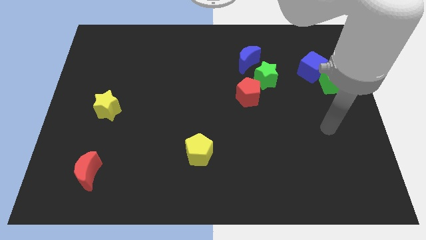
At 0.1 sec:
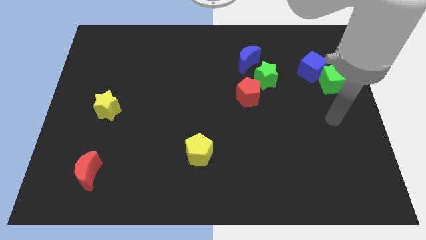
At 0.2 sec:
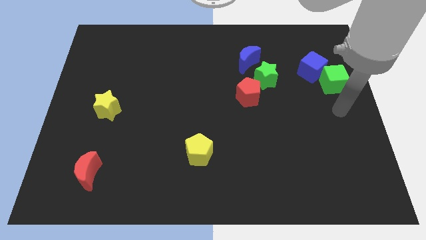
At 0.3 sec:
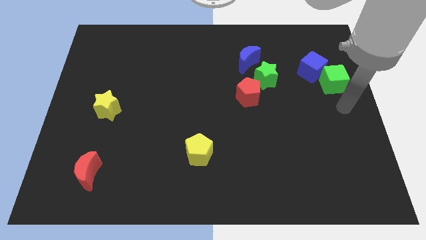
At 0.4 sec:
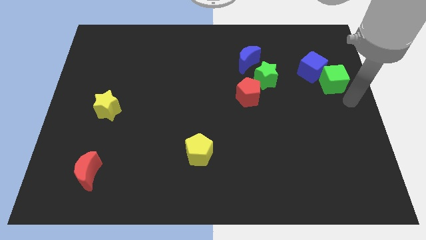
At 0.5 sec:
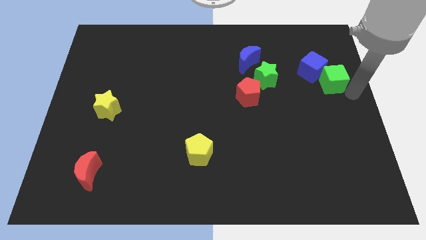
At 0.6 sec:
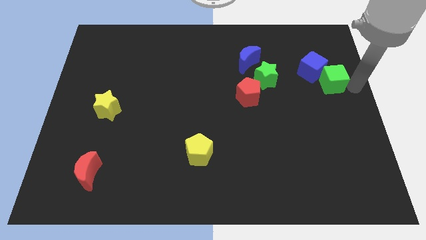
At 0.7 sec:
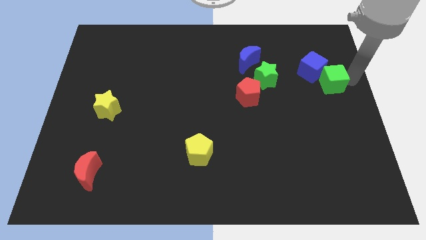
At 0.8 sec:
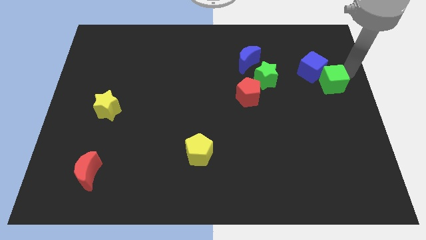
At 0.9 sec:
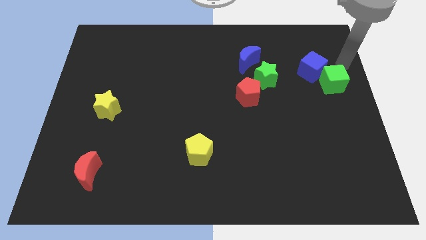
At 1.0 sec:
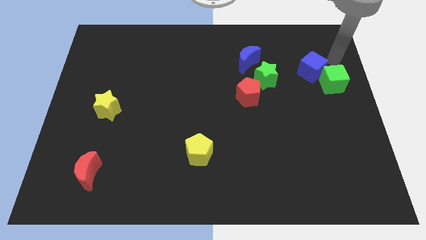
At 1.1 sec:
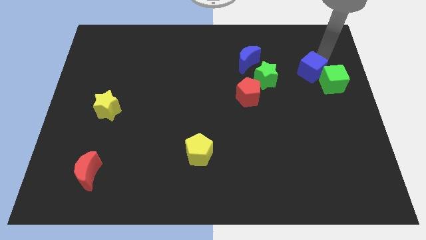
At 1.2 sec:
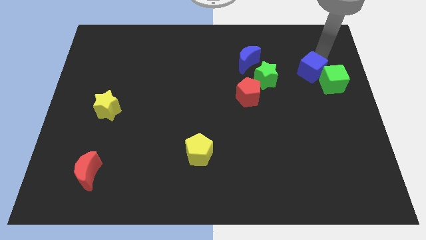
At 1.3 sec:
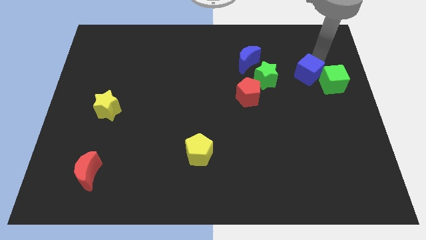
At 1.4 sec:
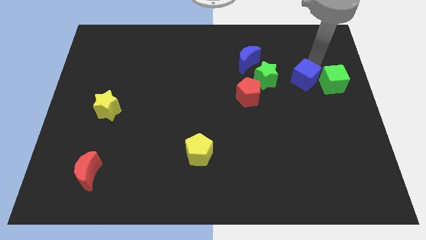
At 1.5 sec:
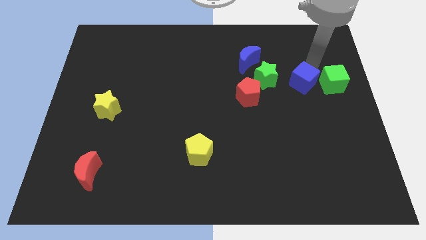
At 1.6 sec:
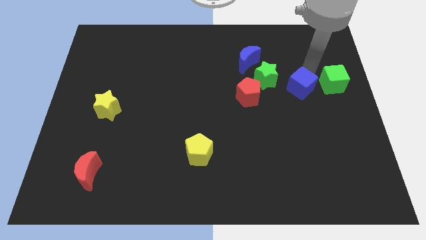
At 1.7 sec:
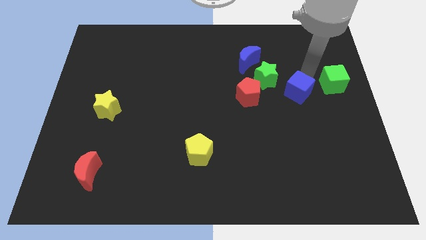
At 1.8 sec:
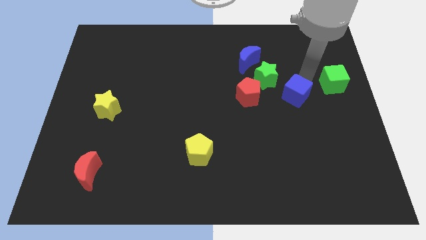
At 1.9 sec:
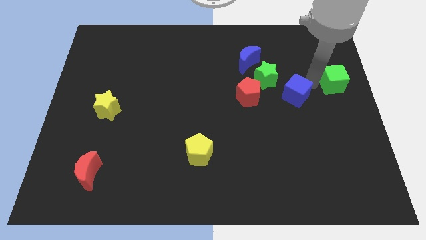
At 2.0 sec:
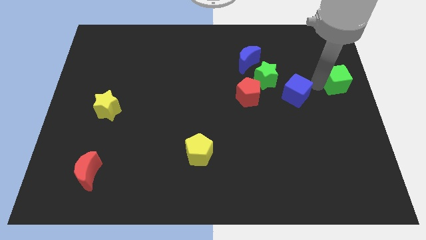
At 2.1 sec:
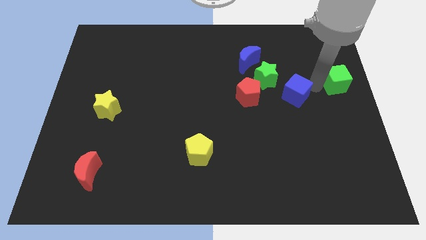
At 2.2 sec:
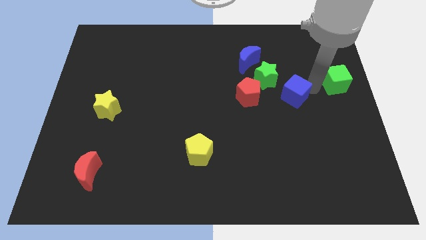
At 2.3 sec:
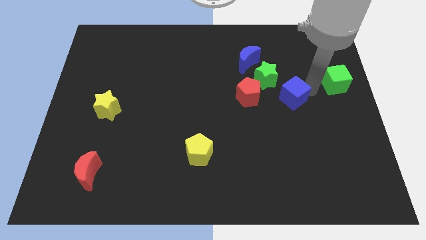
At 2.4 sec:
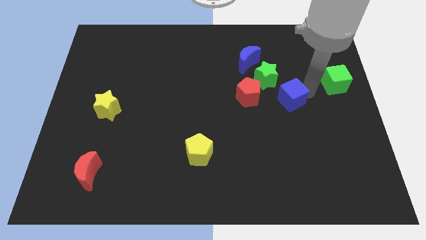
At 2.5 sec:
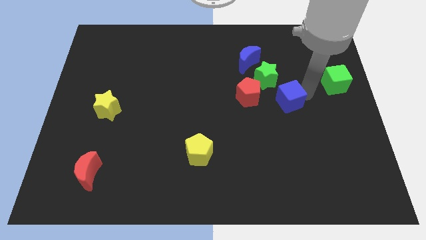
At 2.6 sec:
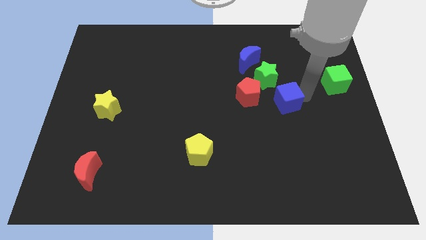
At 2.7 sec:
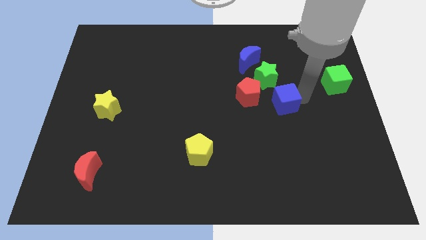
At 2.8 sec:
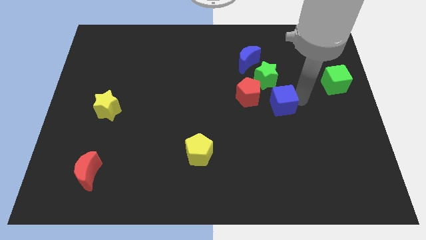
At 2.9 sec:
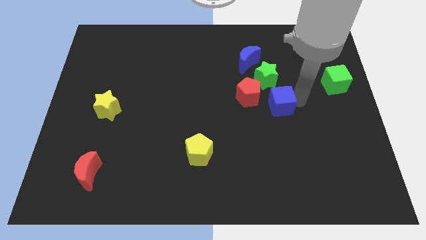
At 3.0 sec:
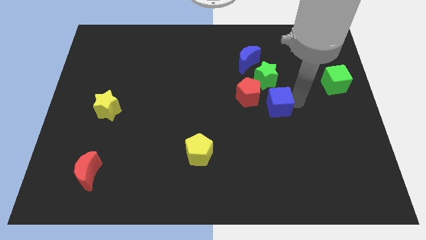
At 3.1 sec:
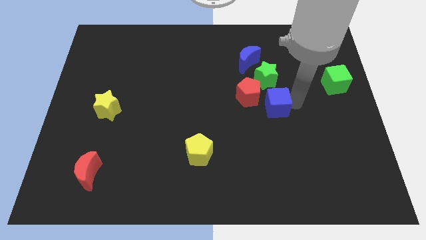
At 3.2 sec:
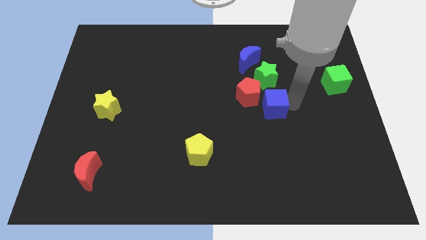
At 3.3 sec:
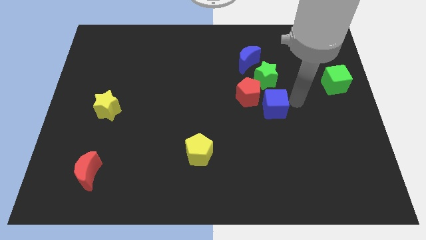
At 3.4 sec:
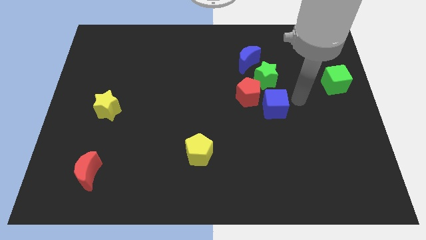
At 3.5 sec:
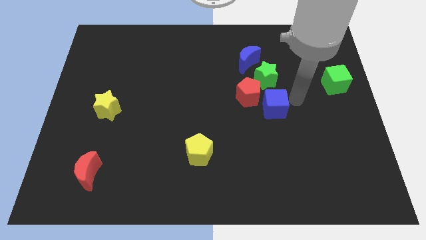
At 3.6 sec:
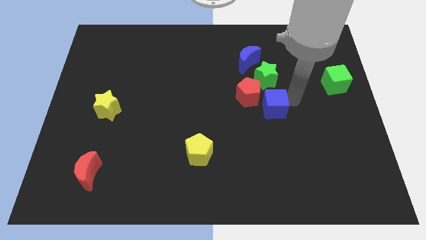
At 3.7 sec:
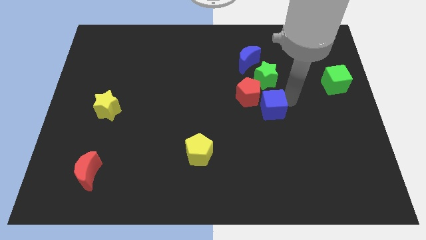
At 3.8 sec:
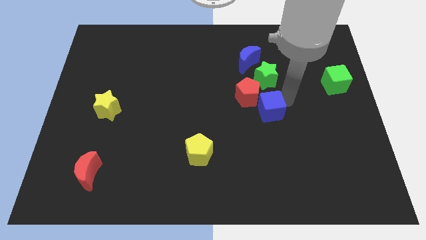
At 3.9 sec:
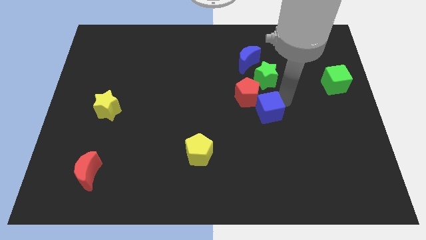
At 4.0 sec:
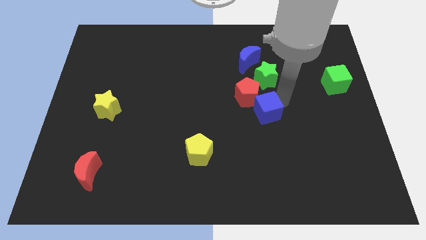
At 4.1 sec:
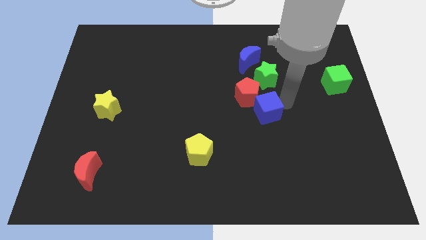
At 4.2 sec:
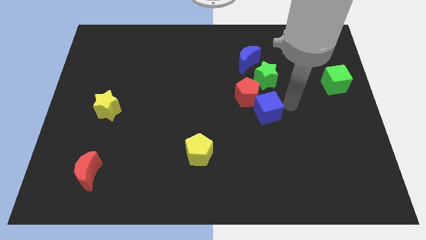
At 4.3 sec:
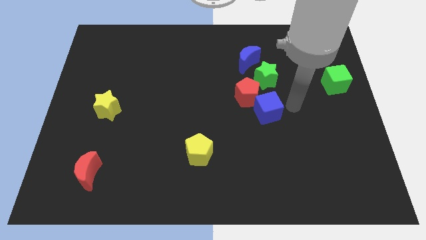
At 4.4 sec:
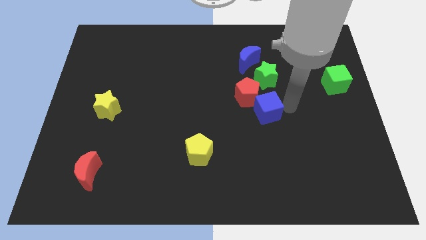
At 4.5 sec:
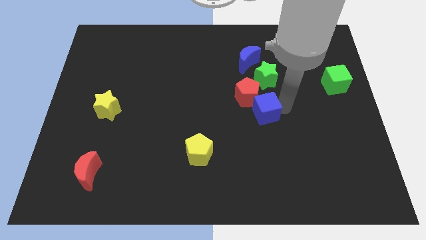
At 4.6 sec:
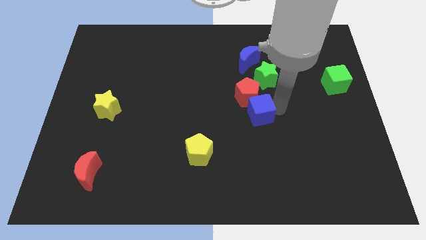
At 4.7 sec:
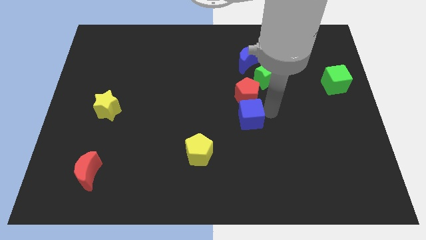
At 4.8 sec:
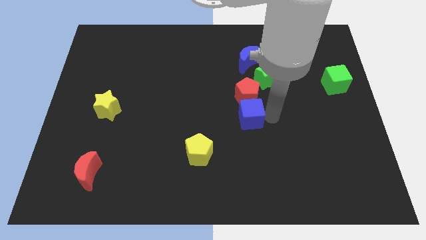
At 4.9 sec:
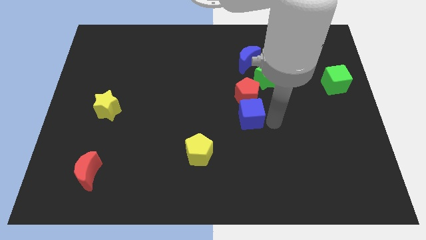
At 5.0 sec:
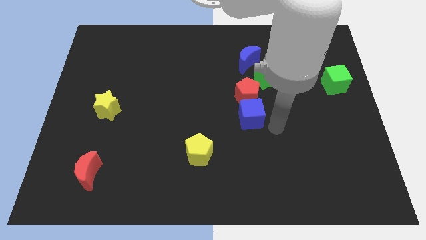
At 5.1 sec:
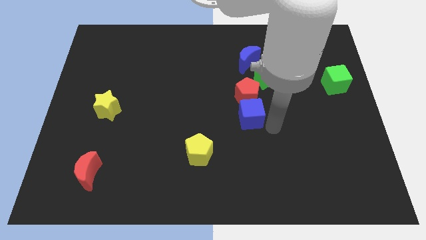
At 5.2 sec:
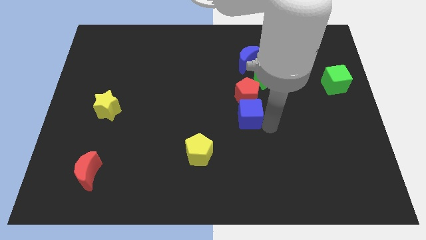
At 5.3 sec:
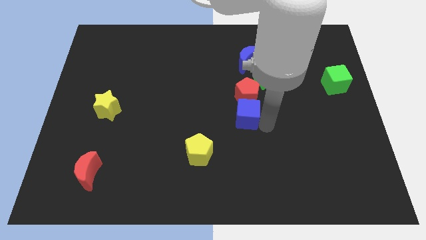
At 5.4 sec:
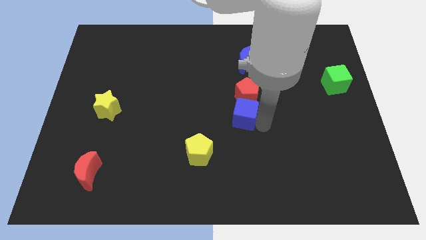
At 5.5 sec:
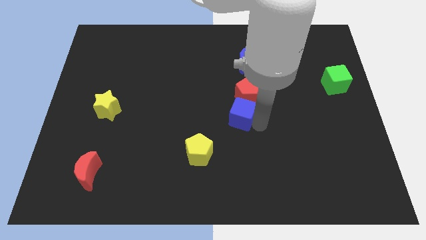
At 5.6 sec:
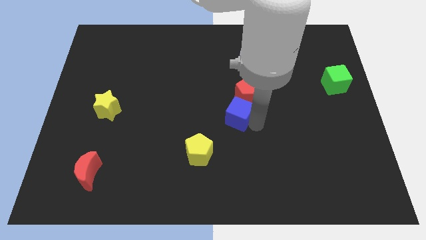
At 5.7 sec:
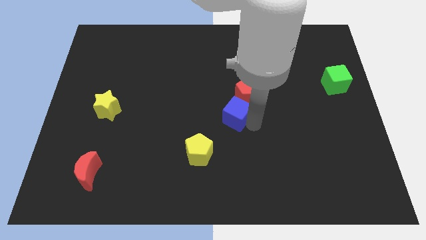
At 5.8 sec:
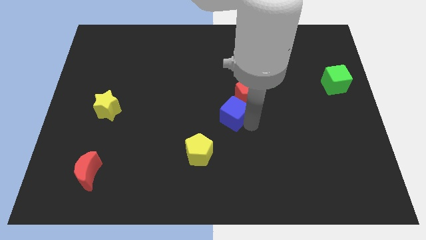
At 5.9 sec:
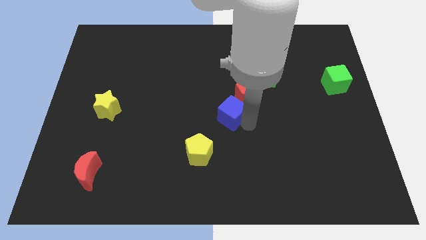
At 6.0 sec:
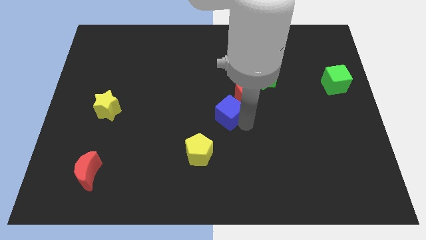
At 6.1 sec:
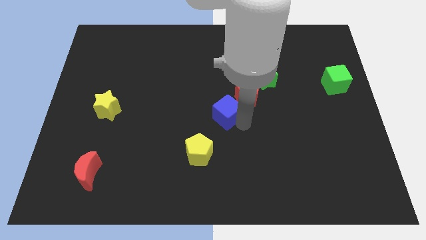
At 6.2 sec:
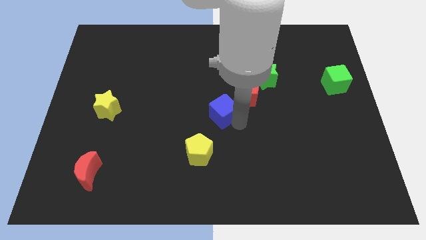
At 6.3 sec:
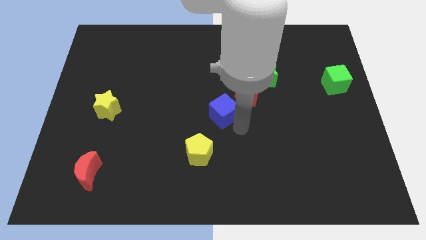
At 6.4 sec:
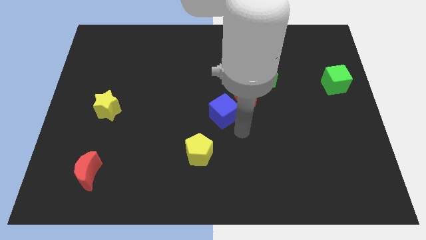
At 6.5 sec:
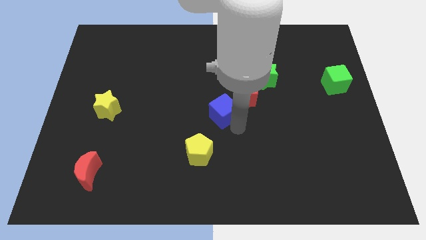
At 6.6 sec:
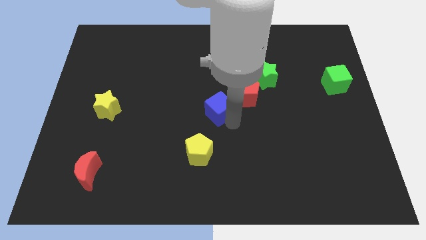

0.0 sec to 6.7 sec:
push the blue cube left of the red pentagon

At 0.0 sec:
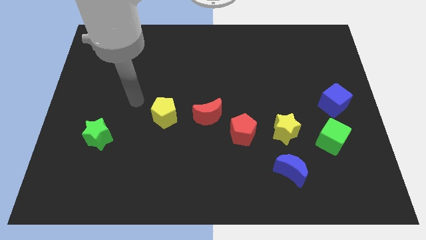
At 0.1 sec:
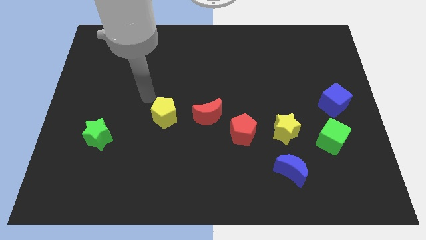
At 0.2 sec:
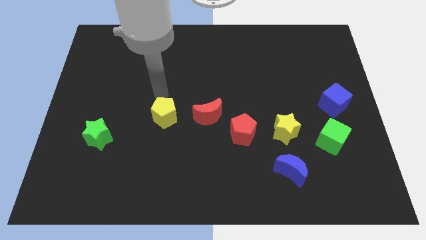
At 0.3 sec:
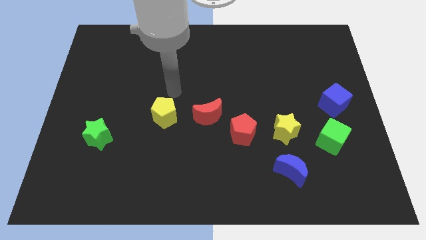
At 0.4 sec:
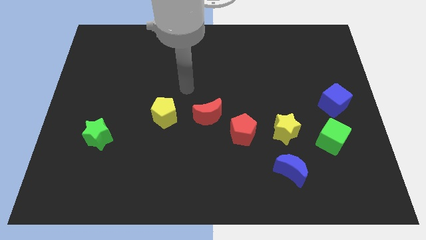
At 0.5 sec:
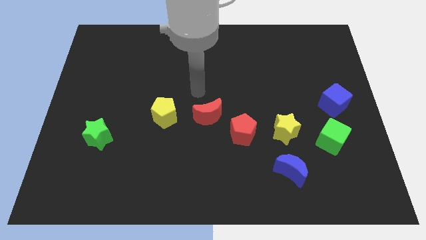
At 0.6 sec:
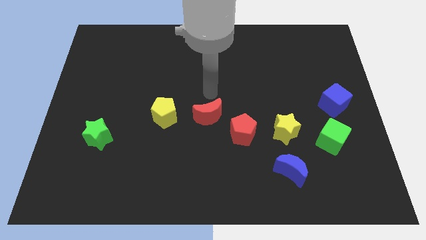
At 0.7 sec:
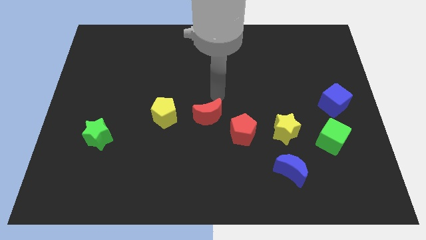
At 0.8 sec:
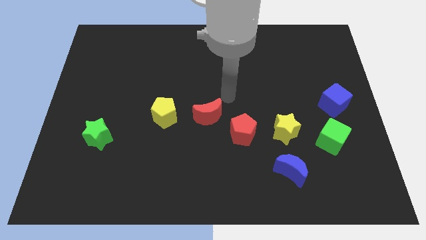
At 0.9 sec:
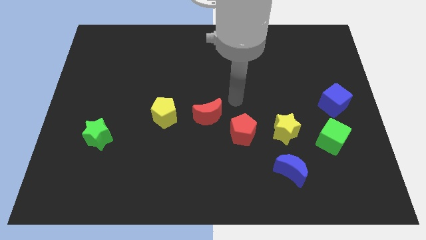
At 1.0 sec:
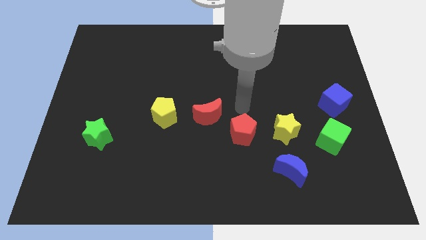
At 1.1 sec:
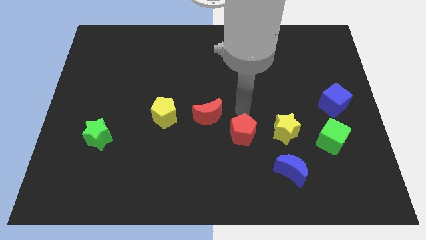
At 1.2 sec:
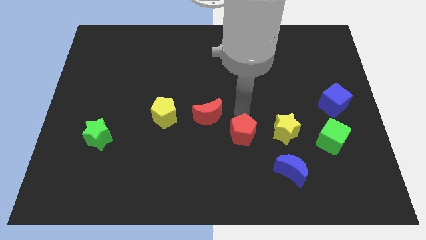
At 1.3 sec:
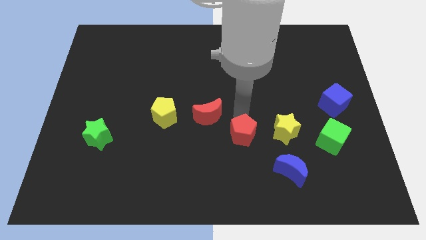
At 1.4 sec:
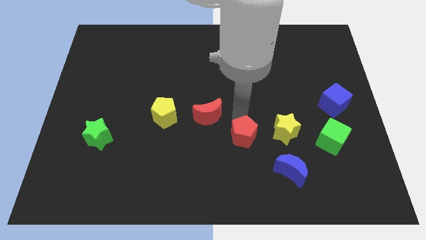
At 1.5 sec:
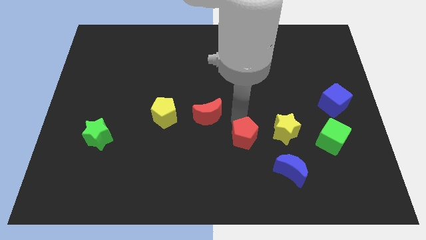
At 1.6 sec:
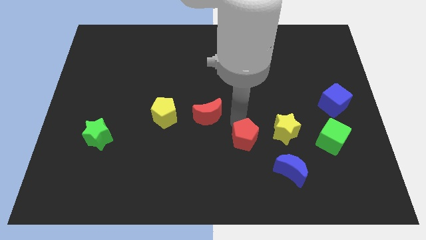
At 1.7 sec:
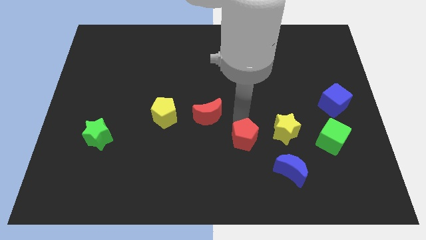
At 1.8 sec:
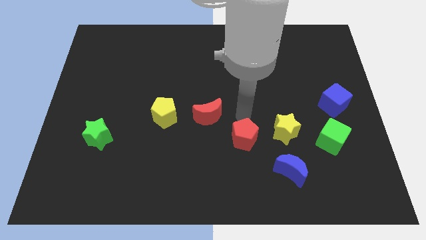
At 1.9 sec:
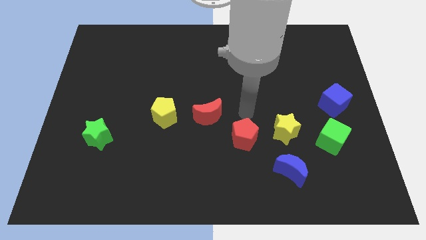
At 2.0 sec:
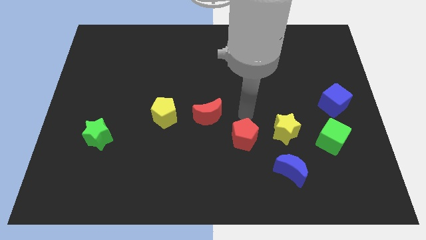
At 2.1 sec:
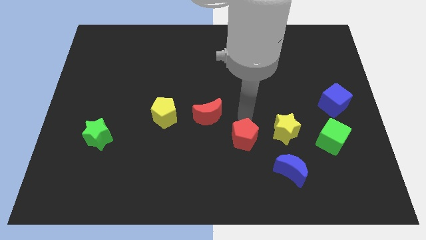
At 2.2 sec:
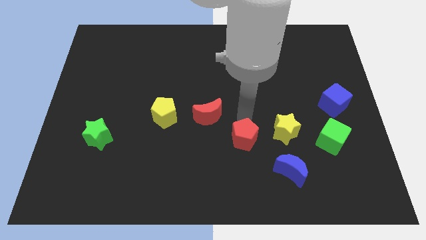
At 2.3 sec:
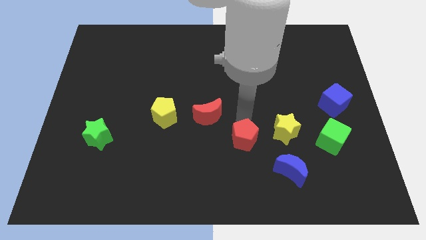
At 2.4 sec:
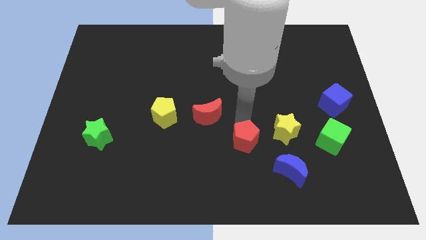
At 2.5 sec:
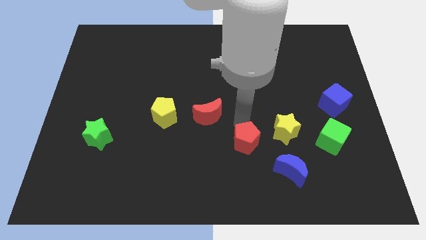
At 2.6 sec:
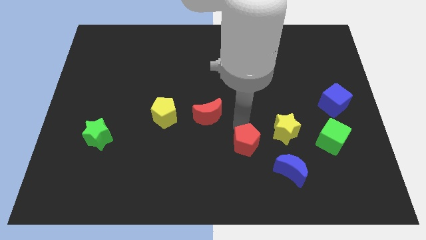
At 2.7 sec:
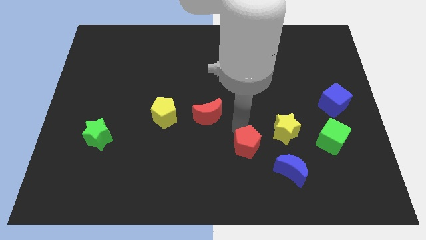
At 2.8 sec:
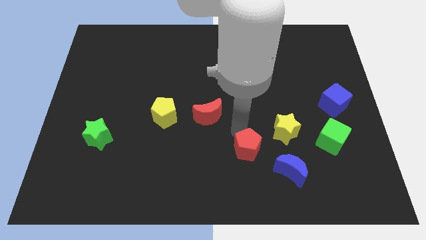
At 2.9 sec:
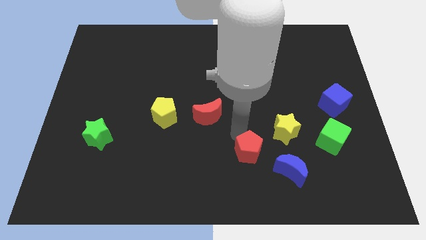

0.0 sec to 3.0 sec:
move the red pentagon to the left of the blue moon
